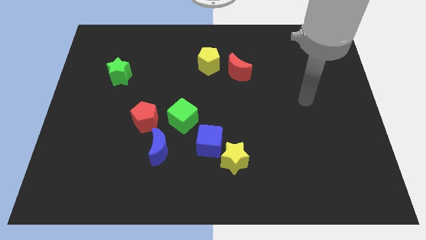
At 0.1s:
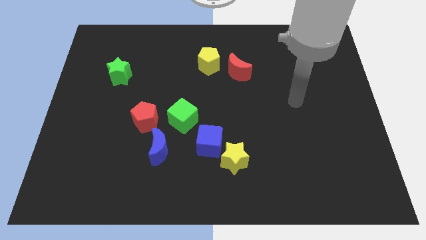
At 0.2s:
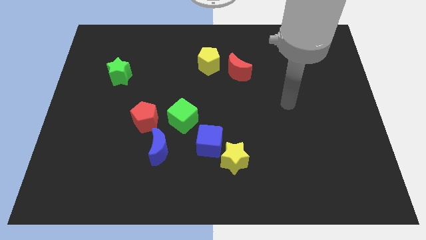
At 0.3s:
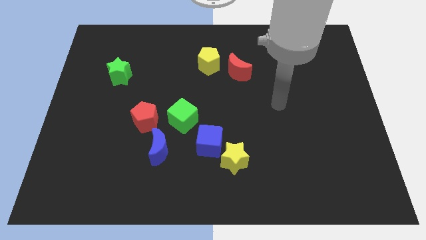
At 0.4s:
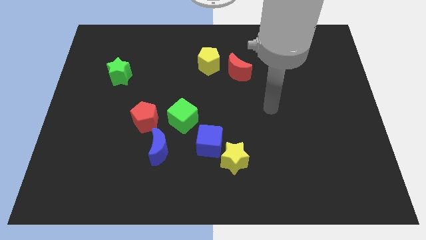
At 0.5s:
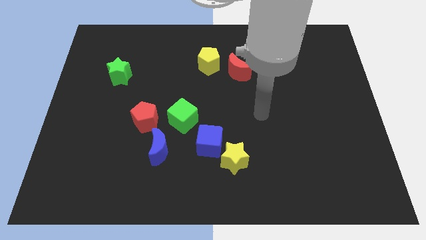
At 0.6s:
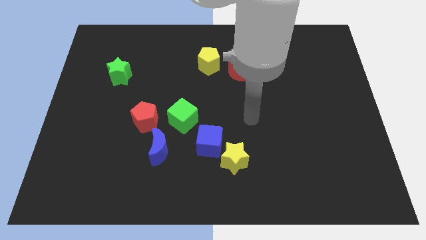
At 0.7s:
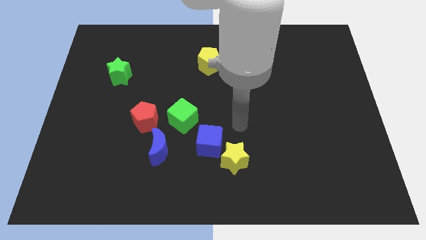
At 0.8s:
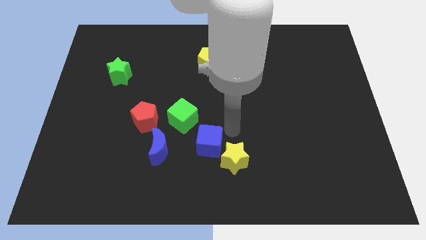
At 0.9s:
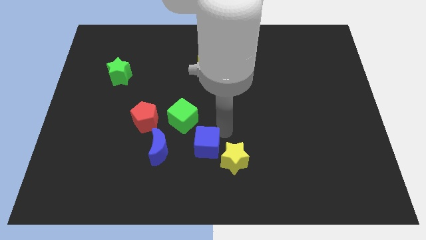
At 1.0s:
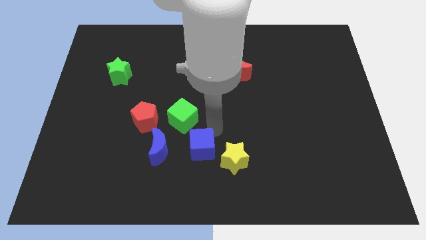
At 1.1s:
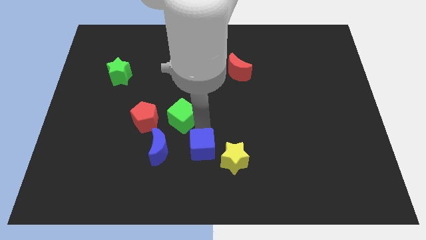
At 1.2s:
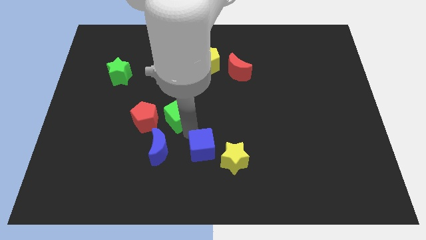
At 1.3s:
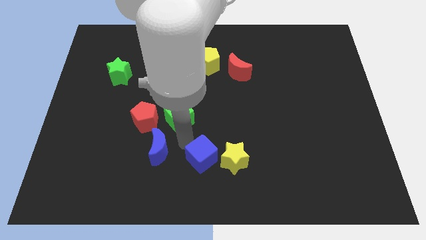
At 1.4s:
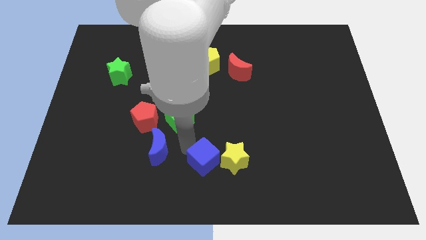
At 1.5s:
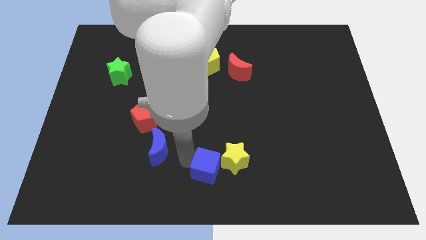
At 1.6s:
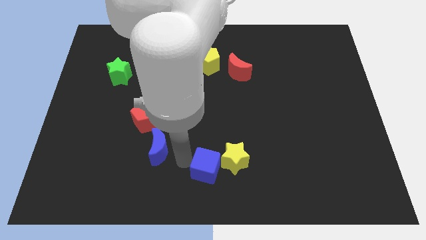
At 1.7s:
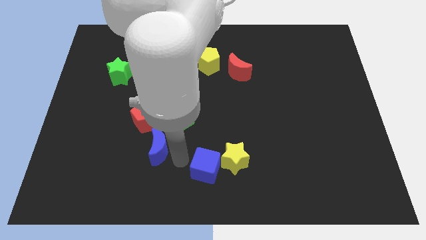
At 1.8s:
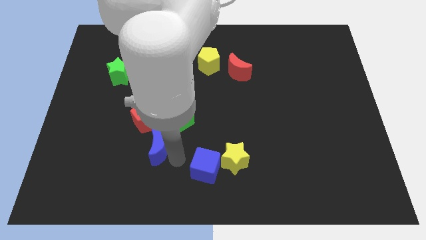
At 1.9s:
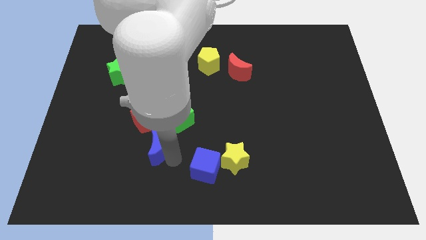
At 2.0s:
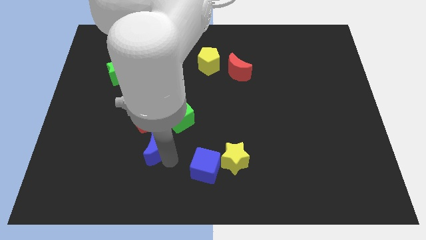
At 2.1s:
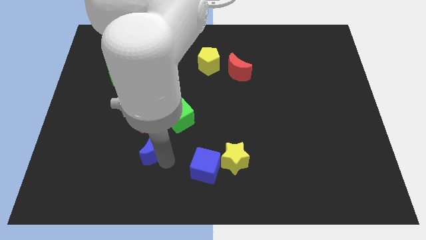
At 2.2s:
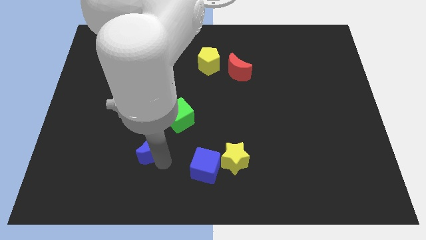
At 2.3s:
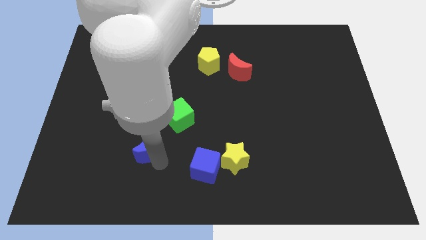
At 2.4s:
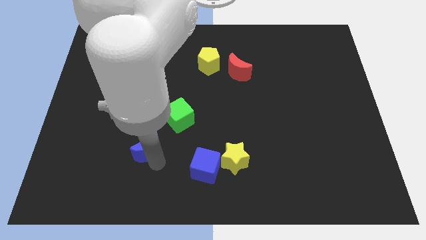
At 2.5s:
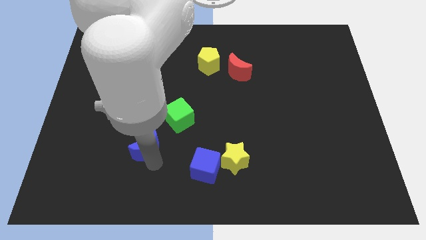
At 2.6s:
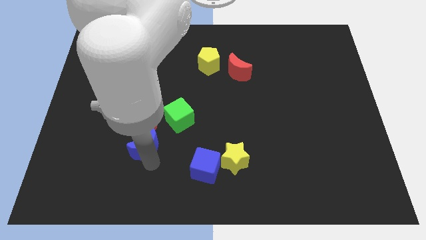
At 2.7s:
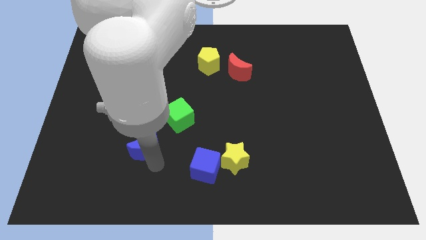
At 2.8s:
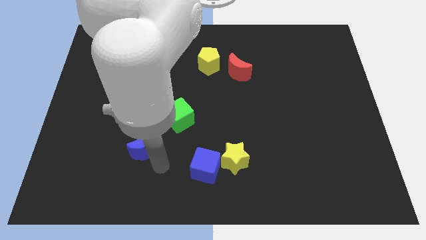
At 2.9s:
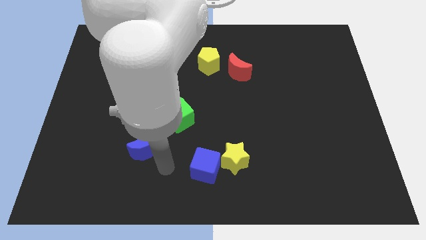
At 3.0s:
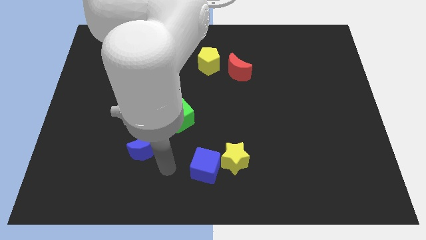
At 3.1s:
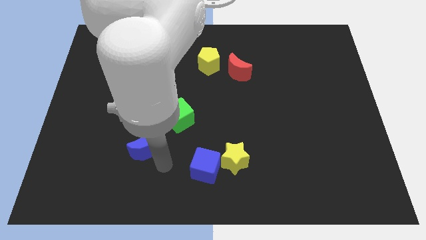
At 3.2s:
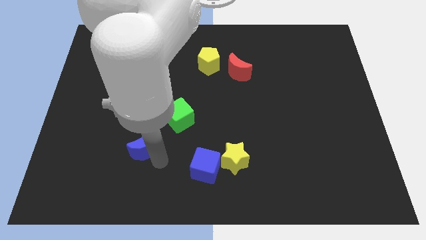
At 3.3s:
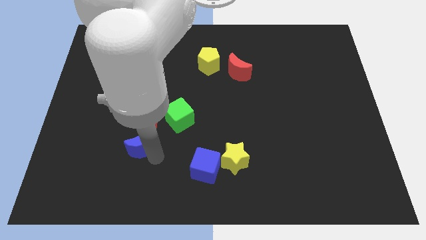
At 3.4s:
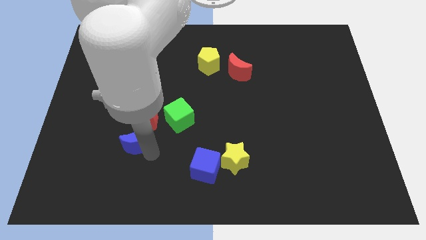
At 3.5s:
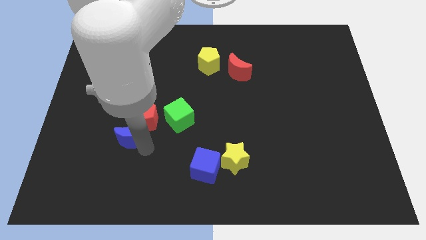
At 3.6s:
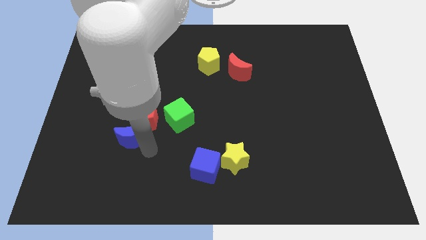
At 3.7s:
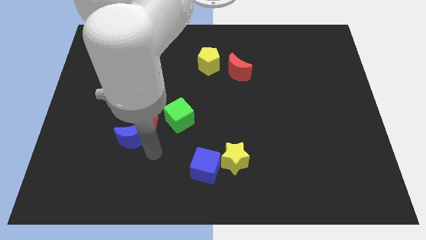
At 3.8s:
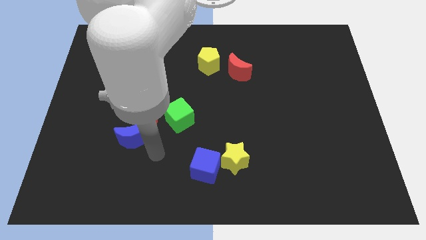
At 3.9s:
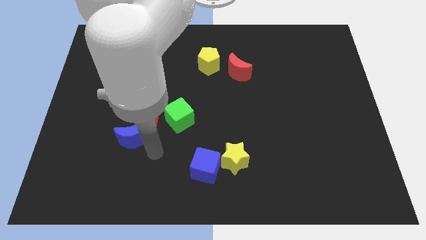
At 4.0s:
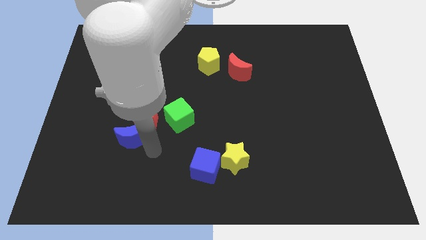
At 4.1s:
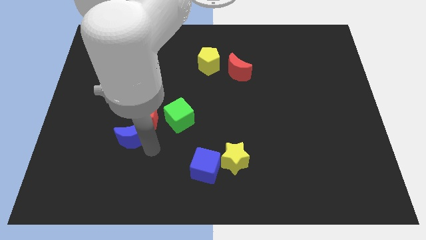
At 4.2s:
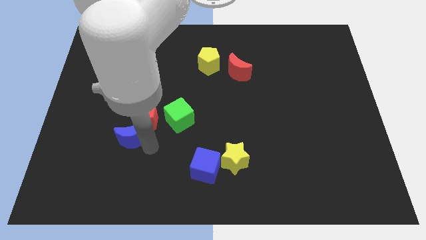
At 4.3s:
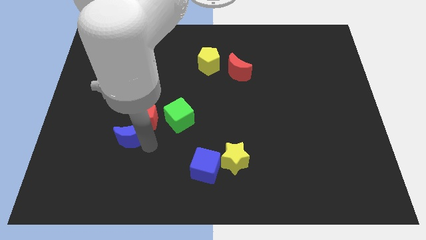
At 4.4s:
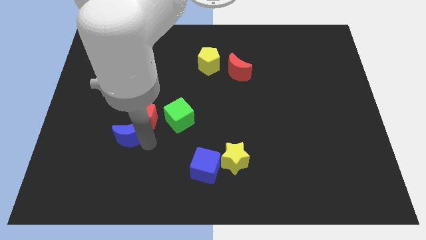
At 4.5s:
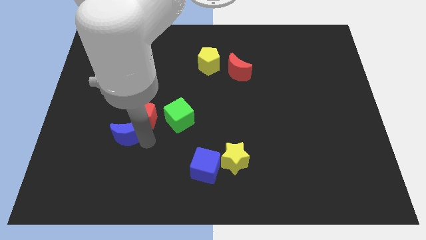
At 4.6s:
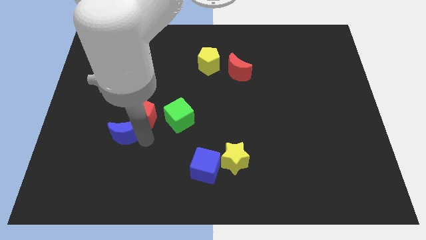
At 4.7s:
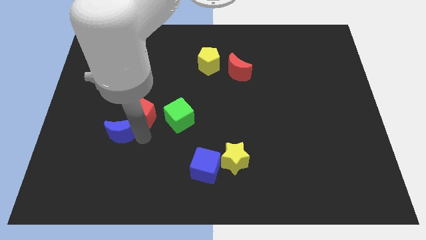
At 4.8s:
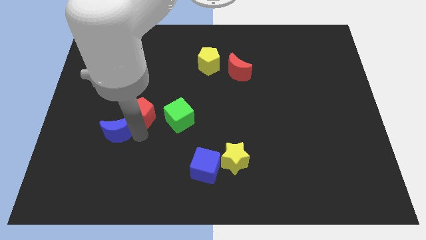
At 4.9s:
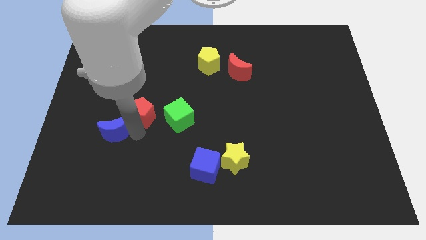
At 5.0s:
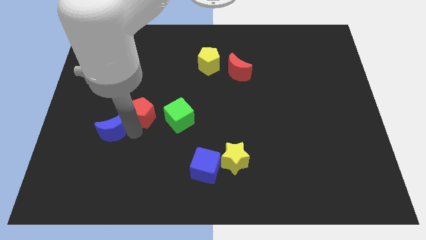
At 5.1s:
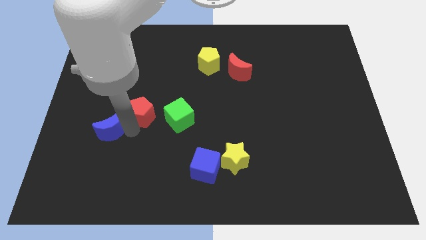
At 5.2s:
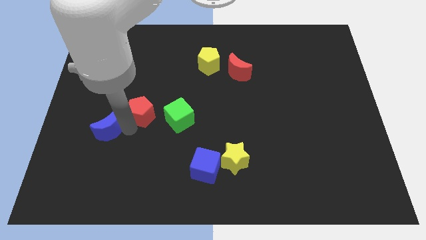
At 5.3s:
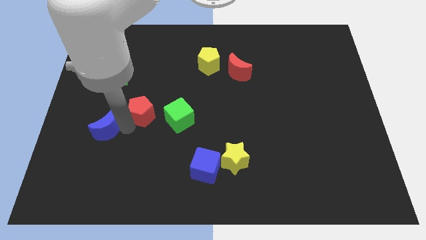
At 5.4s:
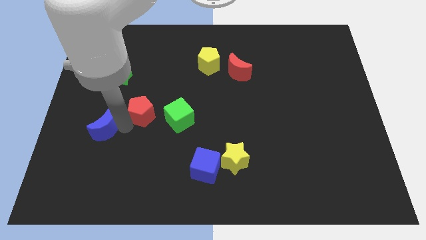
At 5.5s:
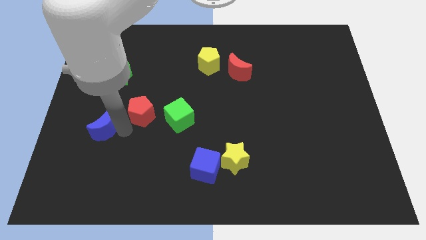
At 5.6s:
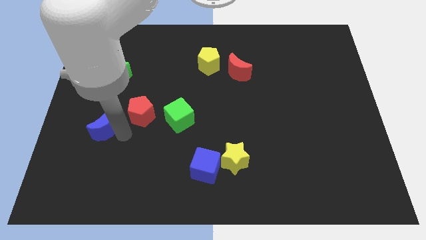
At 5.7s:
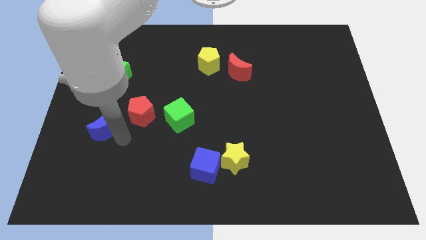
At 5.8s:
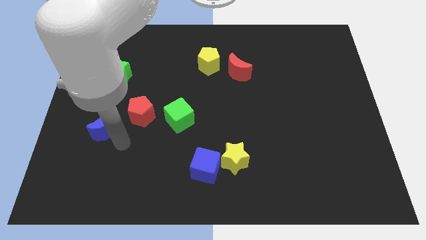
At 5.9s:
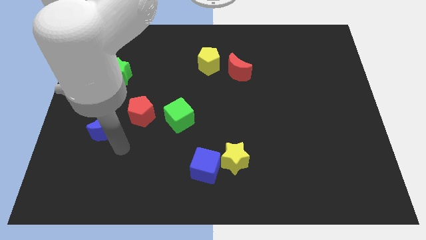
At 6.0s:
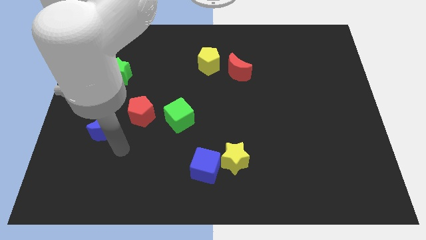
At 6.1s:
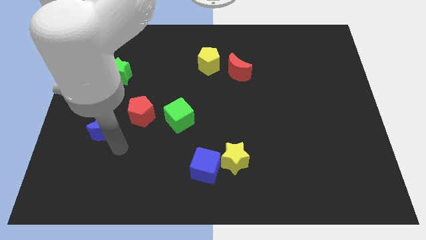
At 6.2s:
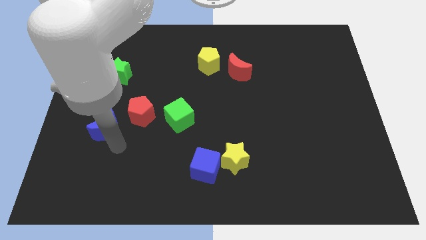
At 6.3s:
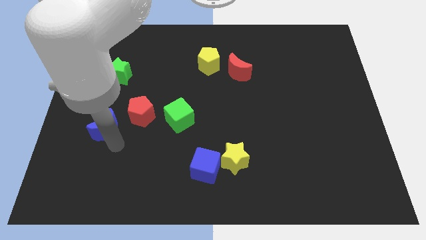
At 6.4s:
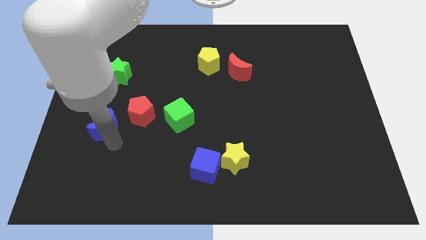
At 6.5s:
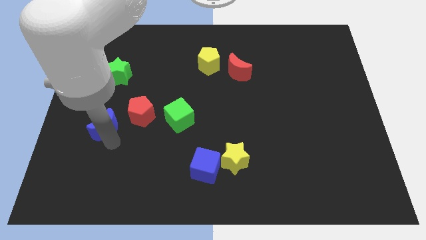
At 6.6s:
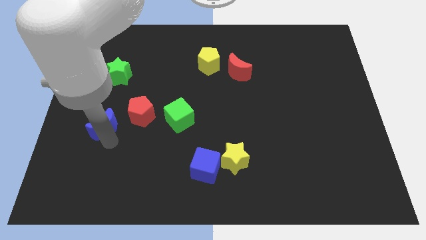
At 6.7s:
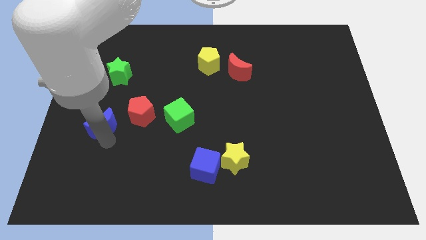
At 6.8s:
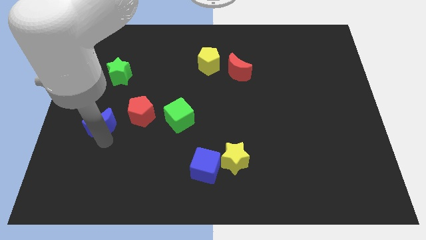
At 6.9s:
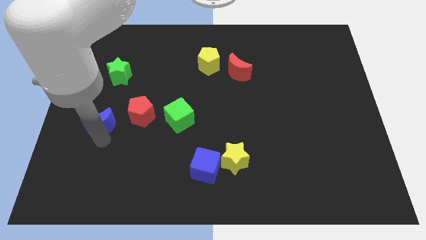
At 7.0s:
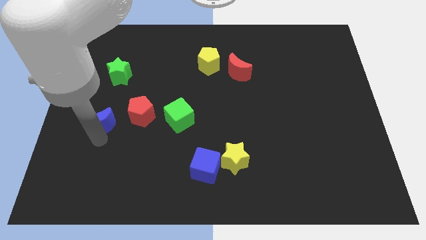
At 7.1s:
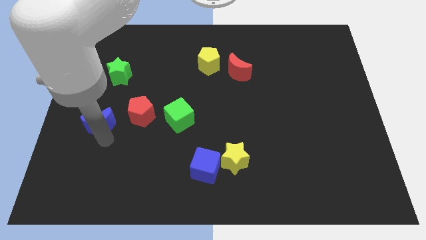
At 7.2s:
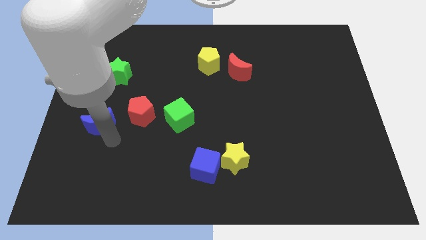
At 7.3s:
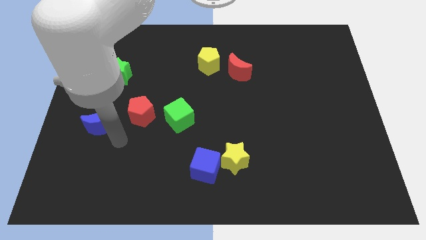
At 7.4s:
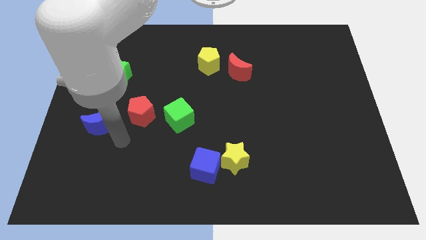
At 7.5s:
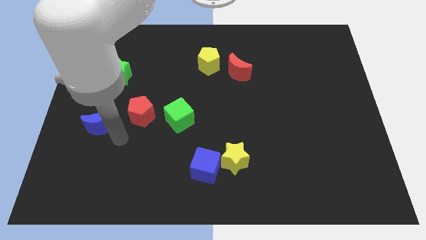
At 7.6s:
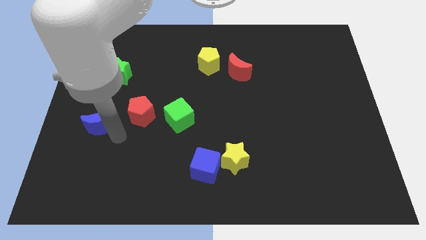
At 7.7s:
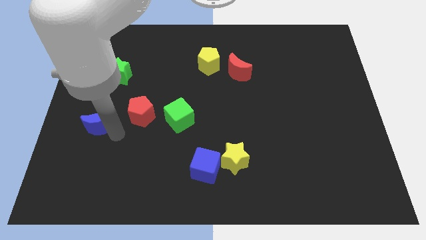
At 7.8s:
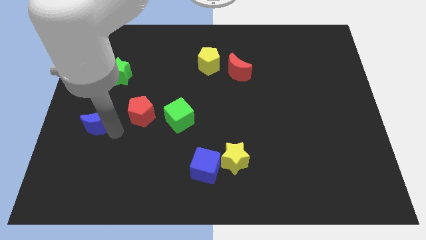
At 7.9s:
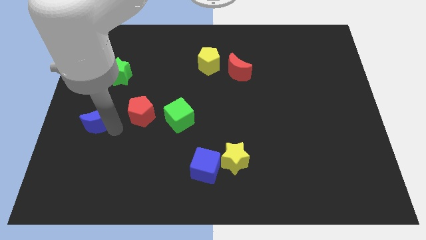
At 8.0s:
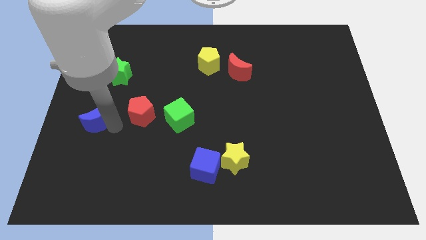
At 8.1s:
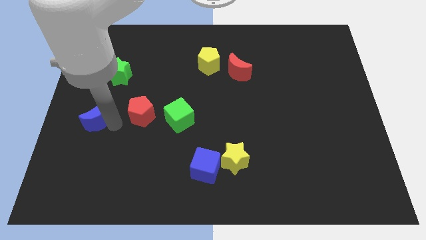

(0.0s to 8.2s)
move the blue moon to the left side
